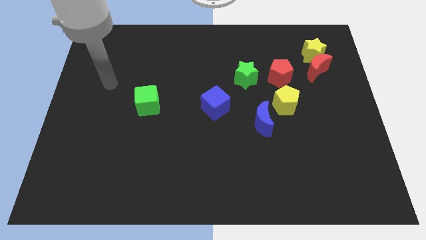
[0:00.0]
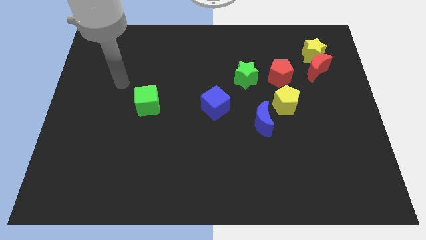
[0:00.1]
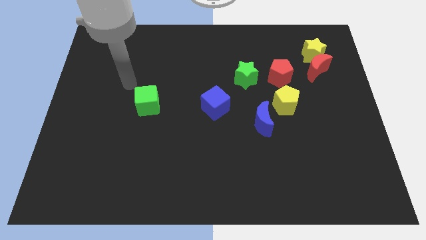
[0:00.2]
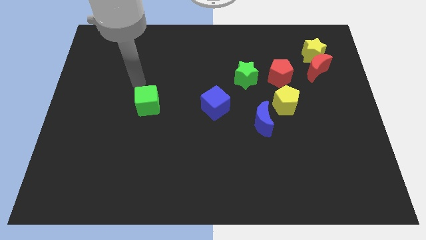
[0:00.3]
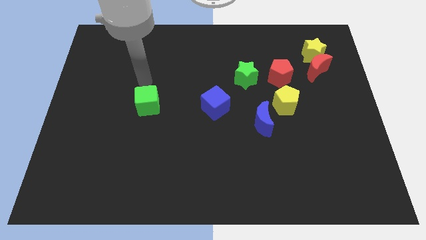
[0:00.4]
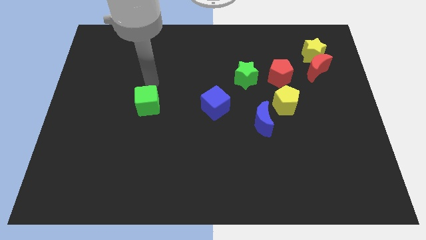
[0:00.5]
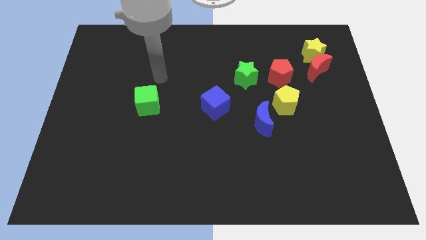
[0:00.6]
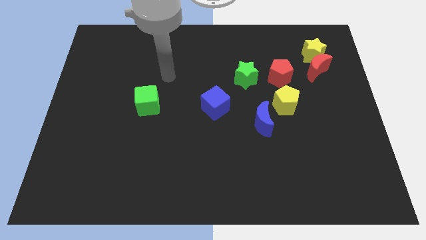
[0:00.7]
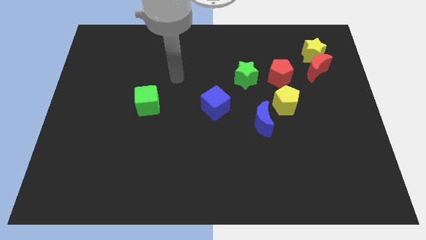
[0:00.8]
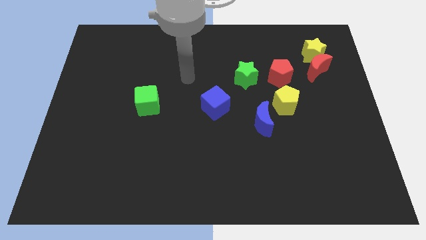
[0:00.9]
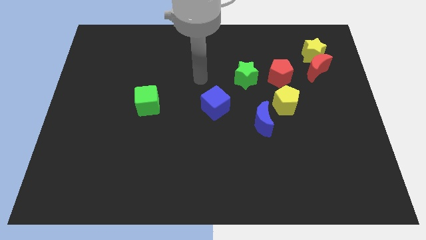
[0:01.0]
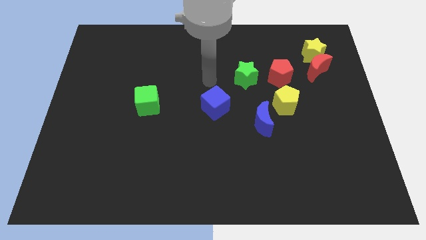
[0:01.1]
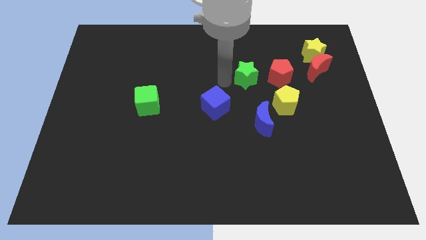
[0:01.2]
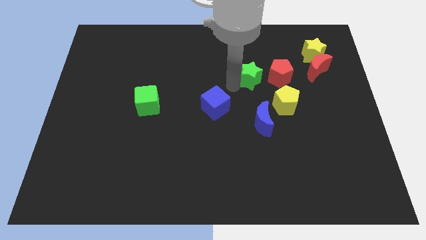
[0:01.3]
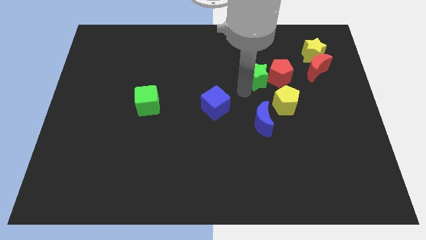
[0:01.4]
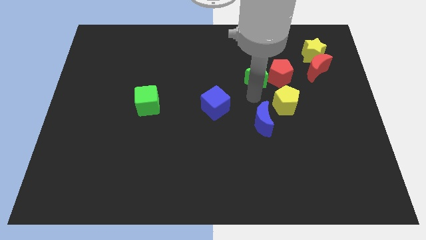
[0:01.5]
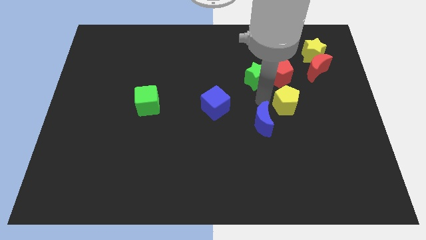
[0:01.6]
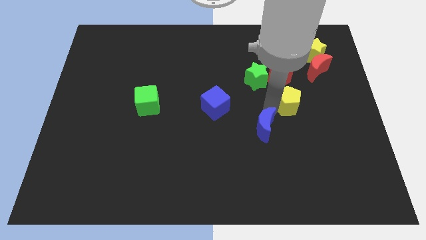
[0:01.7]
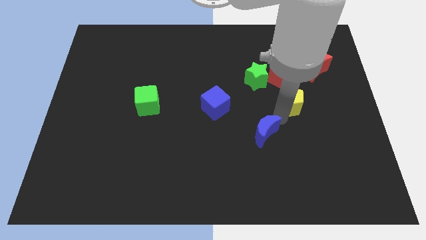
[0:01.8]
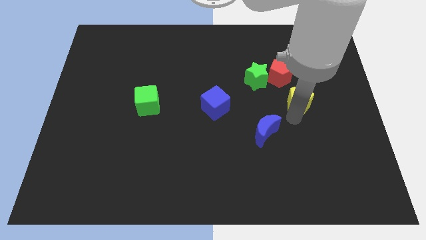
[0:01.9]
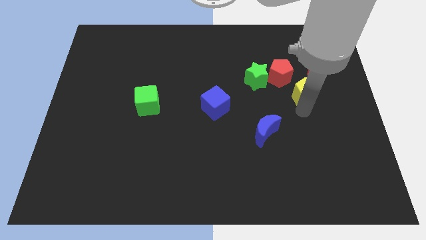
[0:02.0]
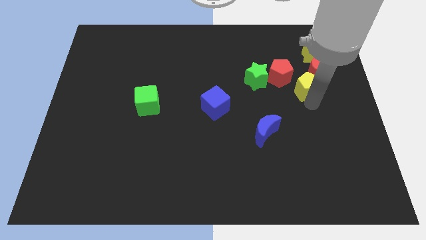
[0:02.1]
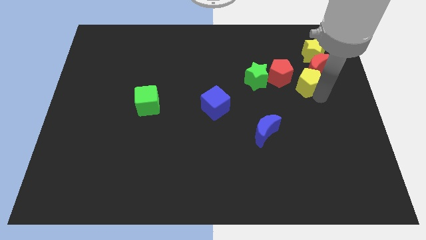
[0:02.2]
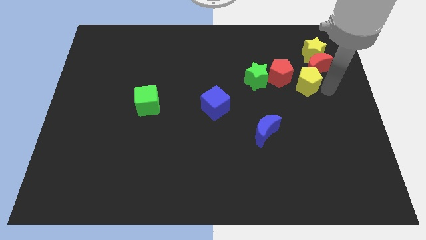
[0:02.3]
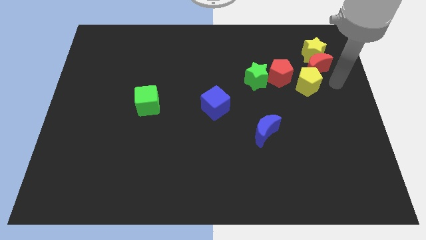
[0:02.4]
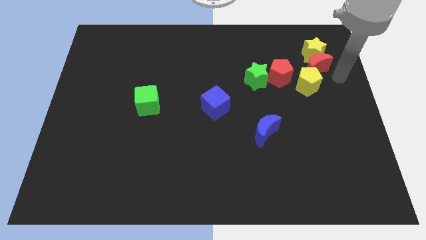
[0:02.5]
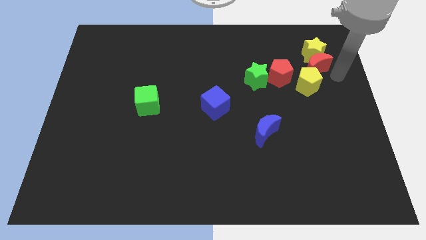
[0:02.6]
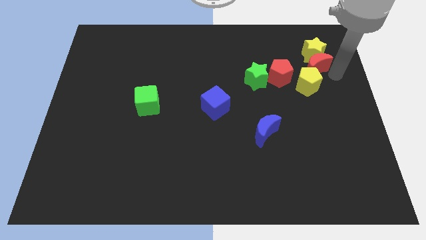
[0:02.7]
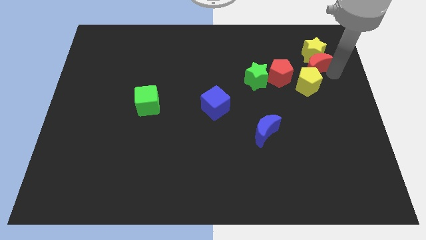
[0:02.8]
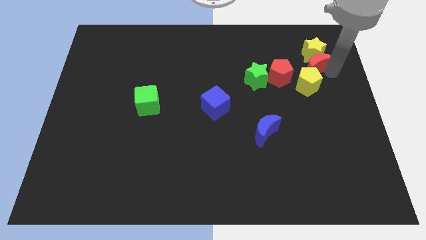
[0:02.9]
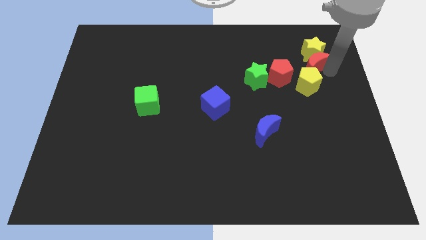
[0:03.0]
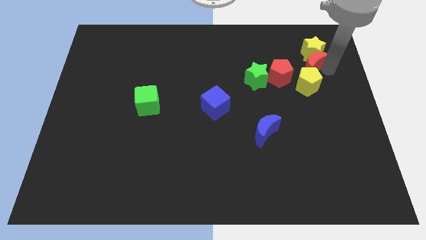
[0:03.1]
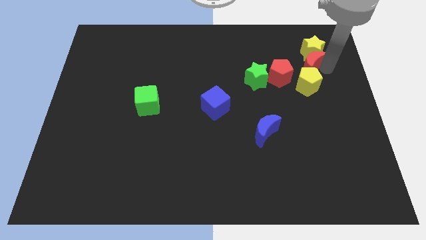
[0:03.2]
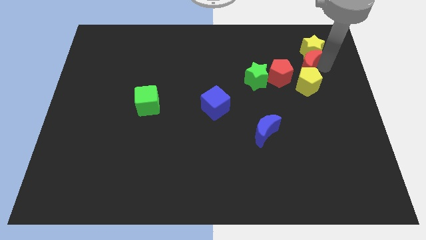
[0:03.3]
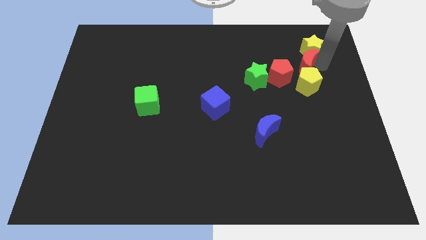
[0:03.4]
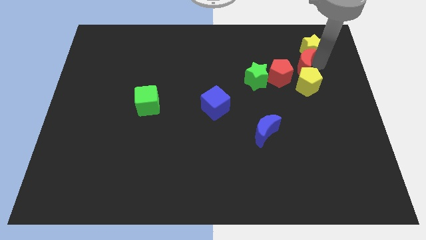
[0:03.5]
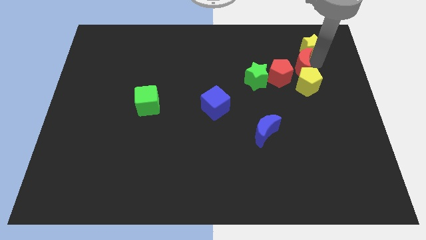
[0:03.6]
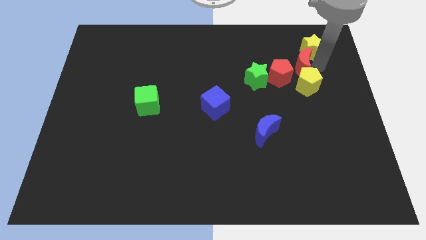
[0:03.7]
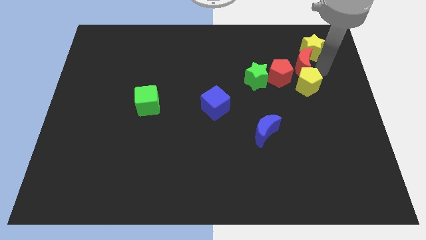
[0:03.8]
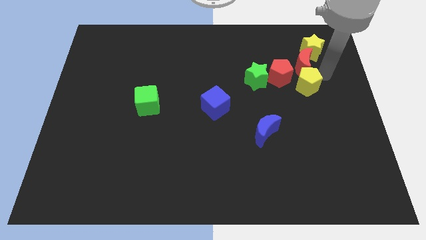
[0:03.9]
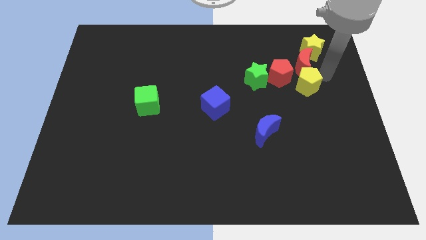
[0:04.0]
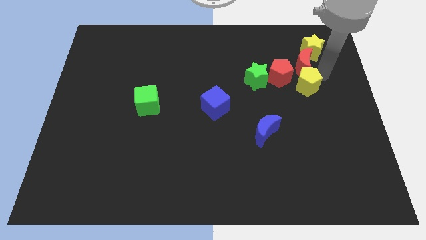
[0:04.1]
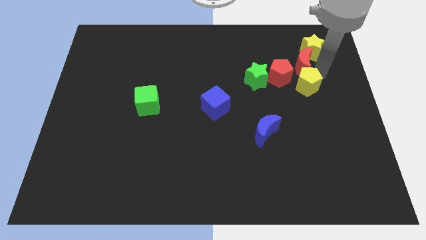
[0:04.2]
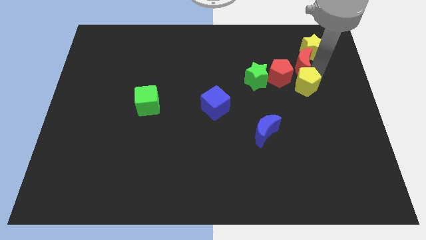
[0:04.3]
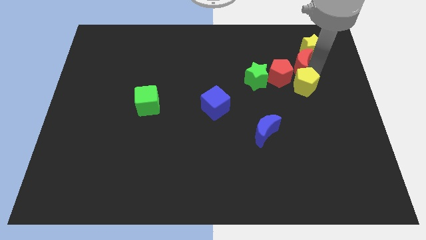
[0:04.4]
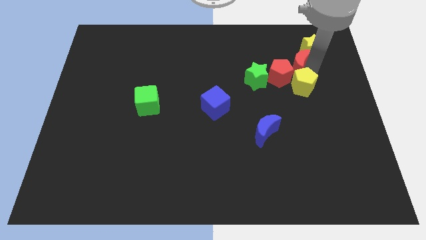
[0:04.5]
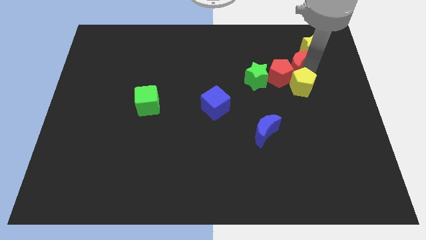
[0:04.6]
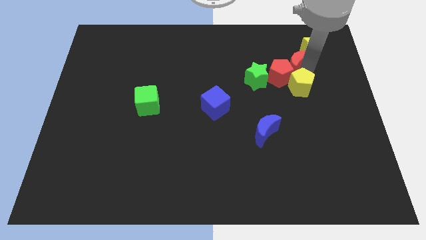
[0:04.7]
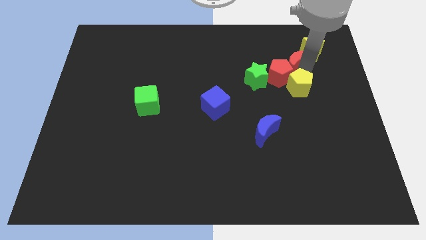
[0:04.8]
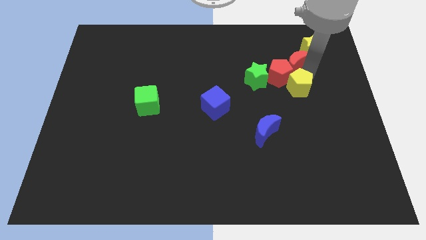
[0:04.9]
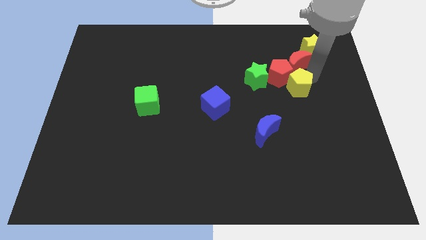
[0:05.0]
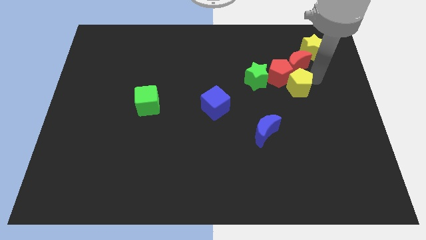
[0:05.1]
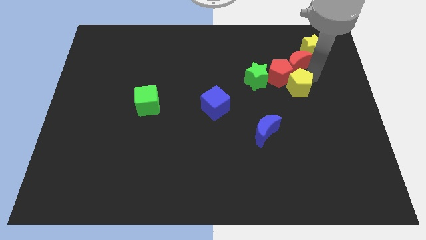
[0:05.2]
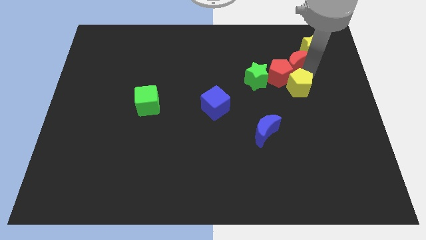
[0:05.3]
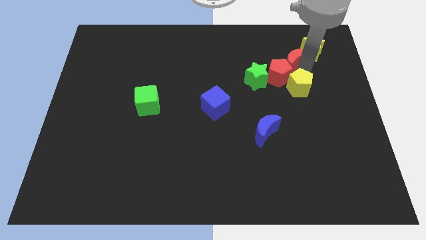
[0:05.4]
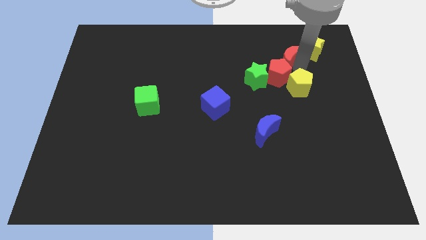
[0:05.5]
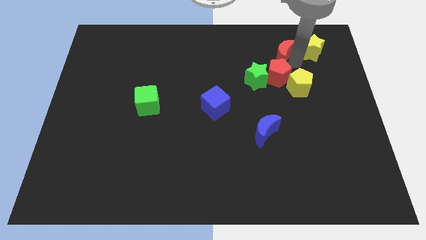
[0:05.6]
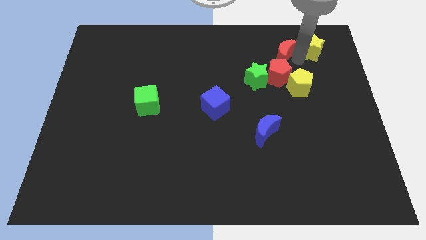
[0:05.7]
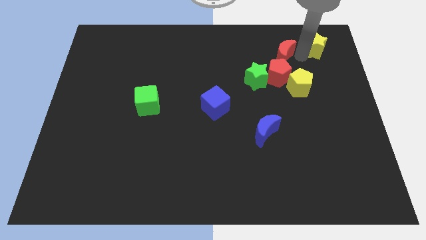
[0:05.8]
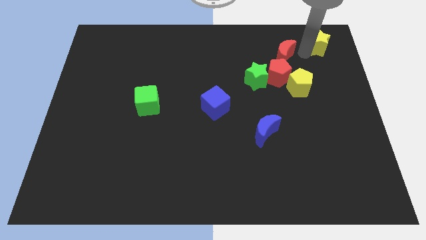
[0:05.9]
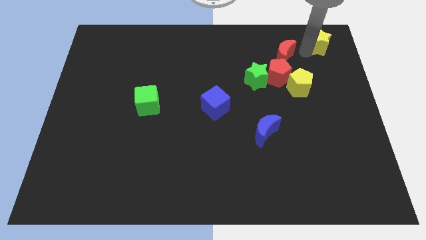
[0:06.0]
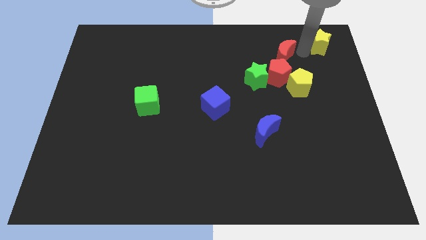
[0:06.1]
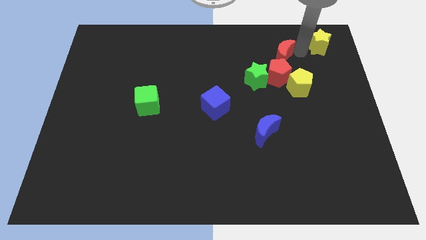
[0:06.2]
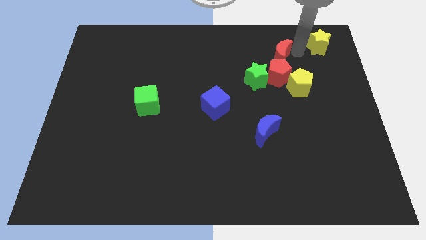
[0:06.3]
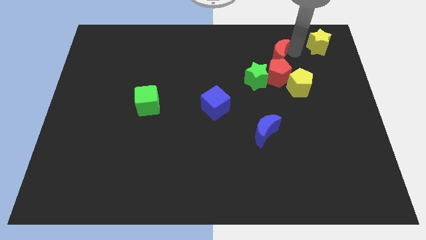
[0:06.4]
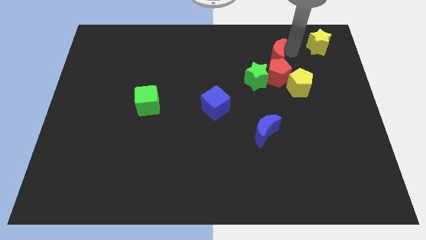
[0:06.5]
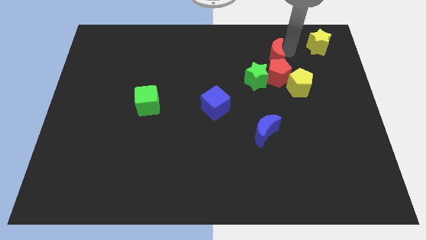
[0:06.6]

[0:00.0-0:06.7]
move the red moon to the top left of the red pentagon

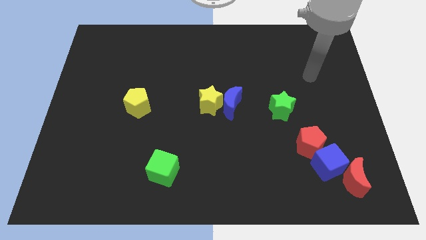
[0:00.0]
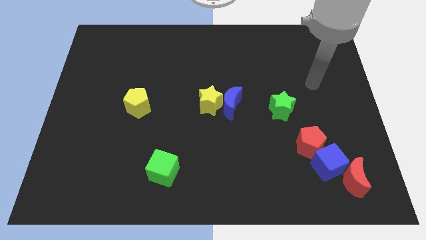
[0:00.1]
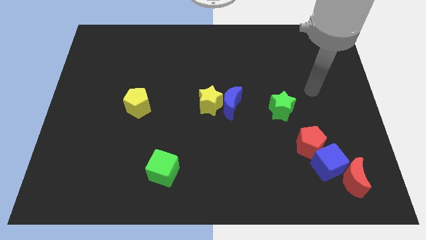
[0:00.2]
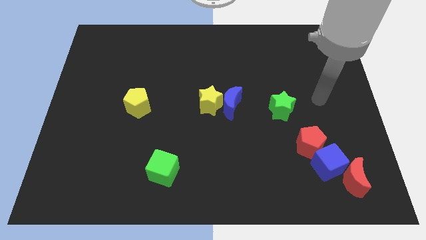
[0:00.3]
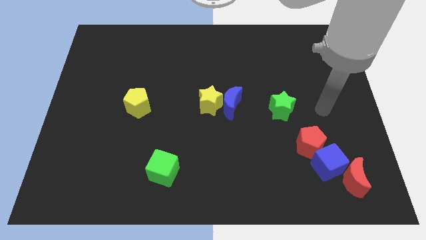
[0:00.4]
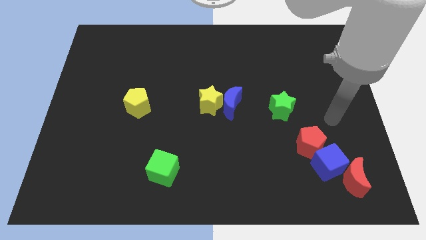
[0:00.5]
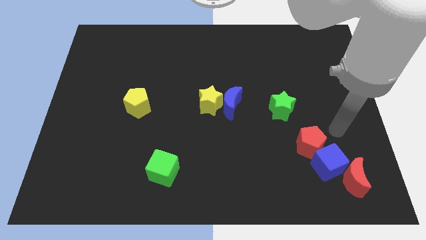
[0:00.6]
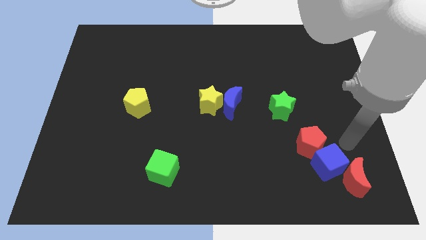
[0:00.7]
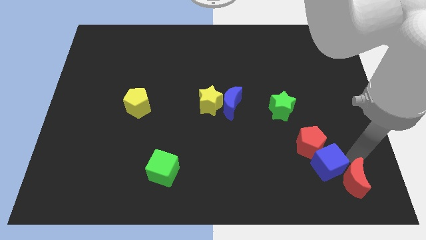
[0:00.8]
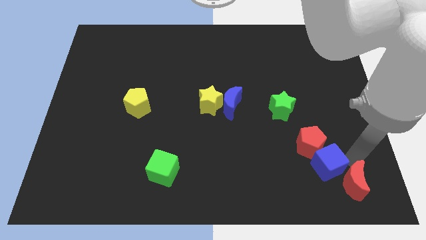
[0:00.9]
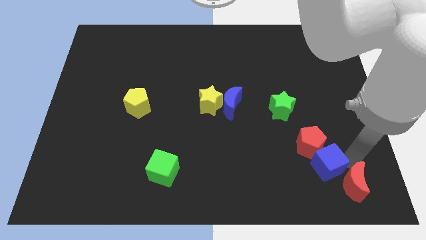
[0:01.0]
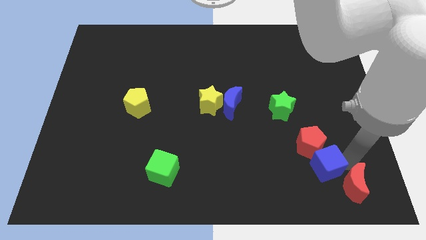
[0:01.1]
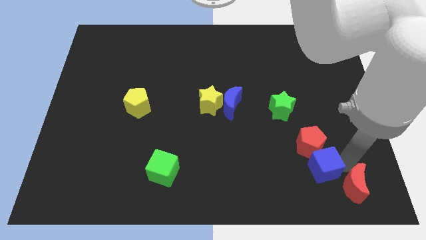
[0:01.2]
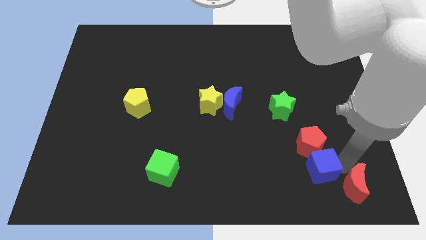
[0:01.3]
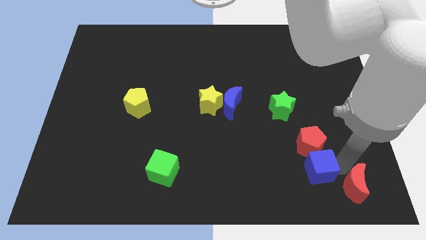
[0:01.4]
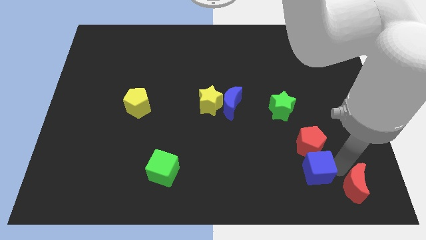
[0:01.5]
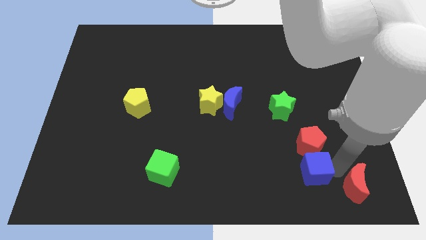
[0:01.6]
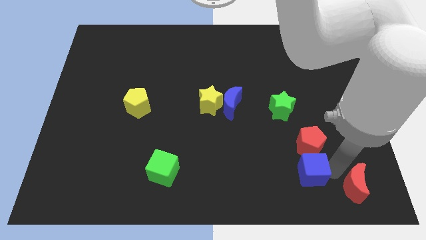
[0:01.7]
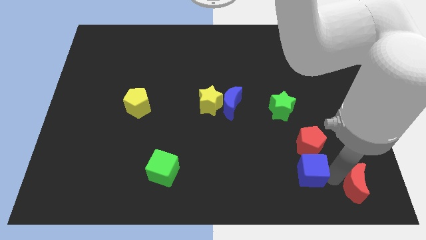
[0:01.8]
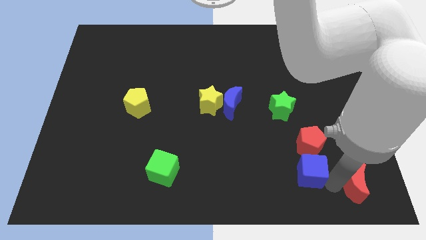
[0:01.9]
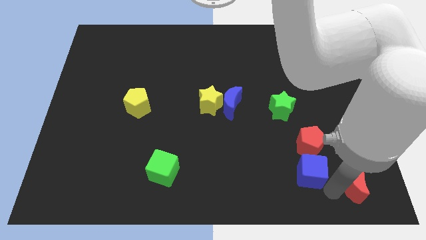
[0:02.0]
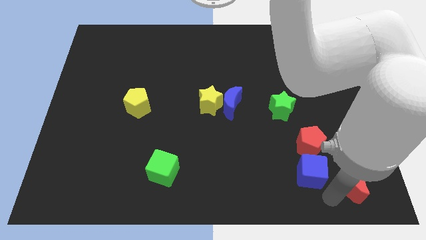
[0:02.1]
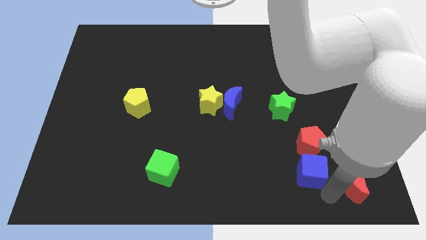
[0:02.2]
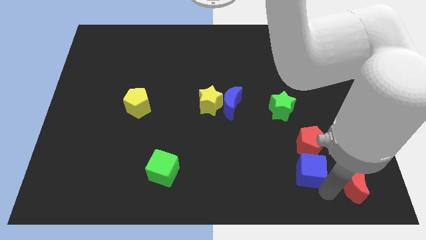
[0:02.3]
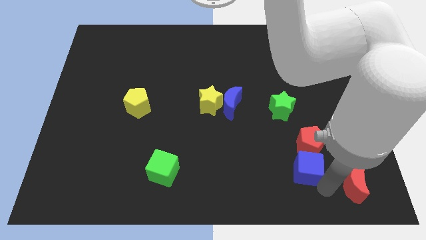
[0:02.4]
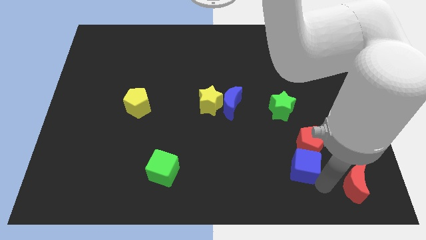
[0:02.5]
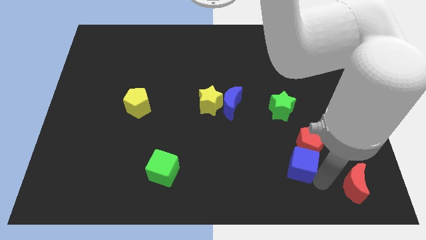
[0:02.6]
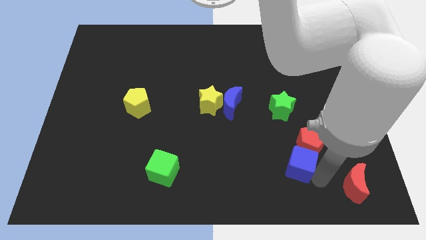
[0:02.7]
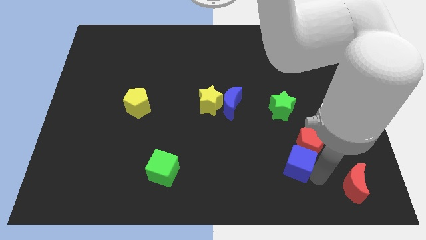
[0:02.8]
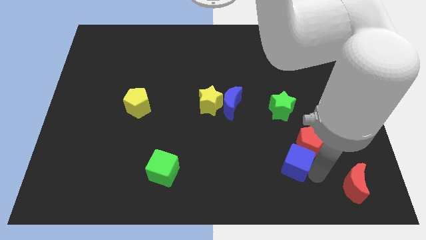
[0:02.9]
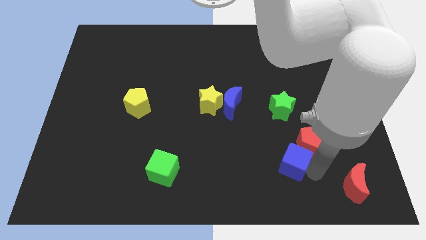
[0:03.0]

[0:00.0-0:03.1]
slide the blue cube left of the red pentagon
